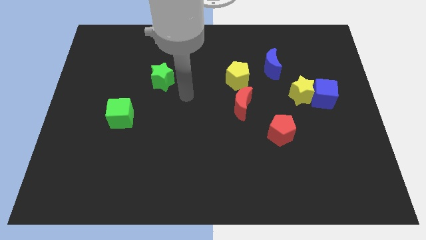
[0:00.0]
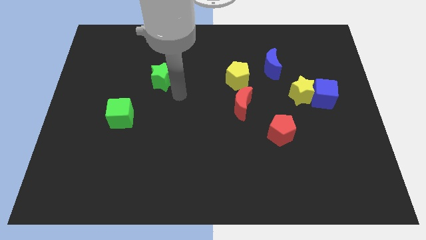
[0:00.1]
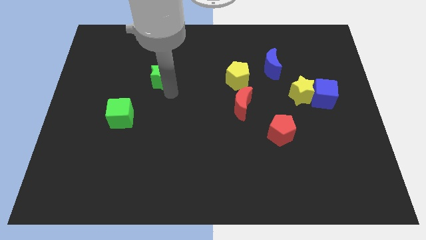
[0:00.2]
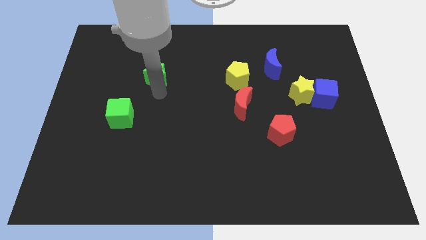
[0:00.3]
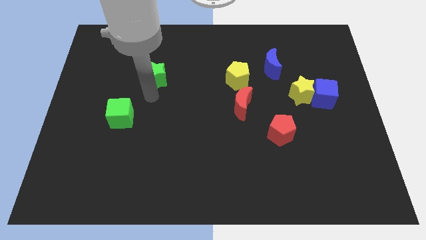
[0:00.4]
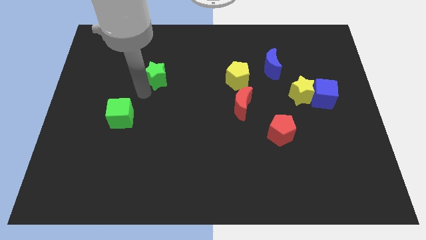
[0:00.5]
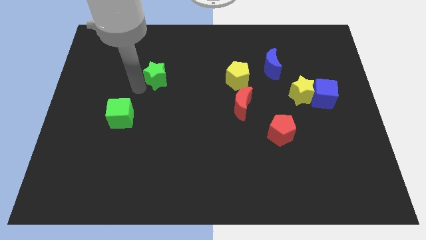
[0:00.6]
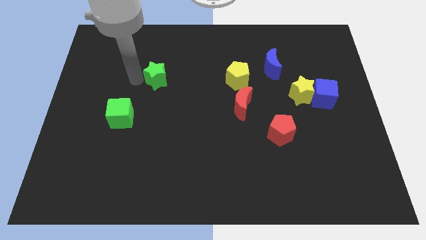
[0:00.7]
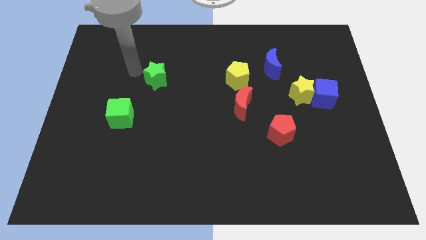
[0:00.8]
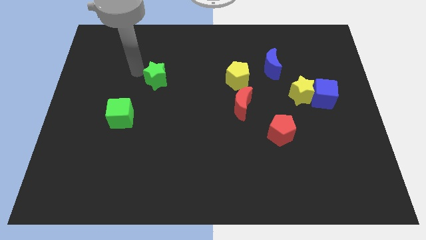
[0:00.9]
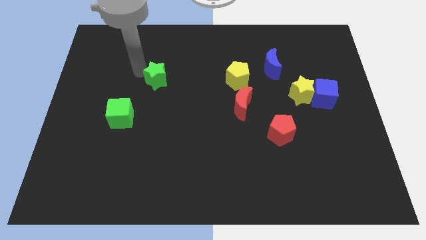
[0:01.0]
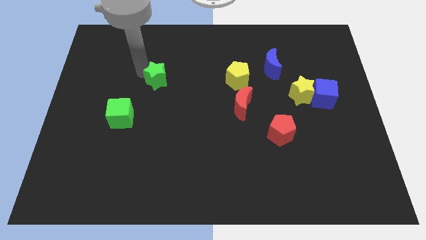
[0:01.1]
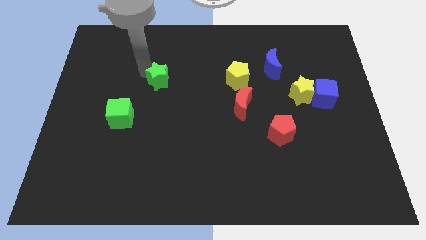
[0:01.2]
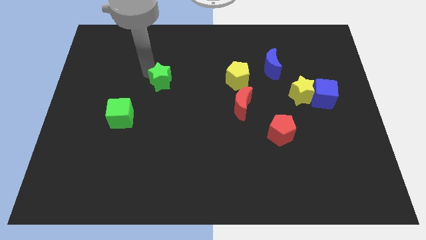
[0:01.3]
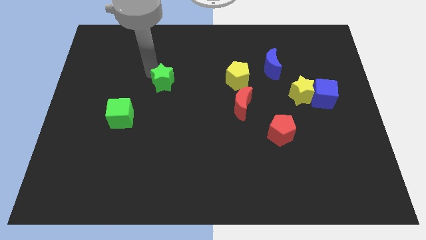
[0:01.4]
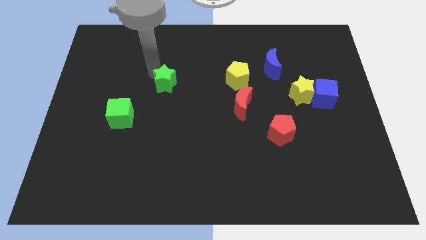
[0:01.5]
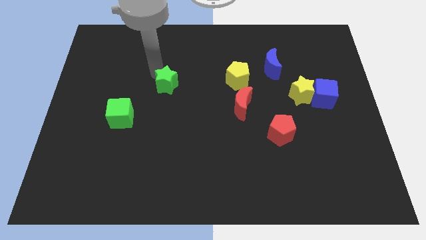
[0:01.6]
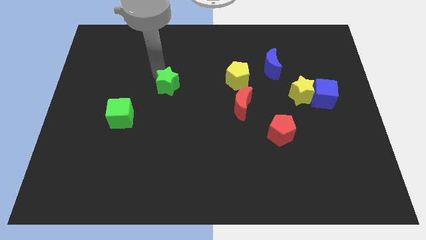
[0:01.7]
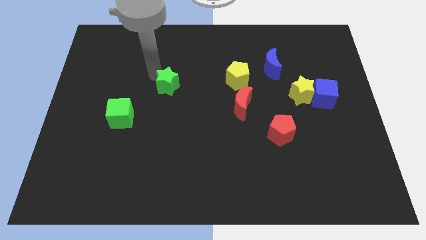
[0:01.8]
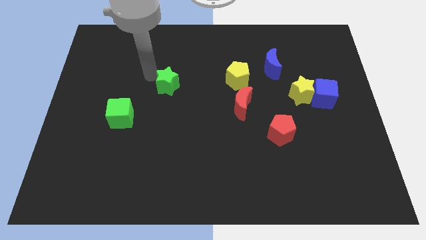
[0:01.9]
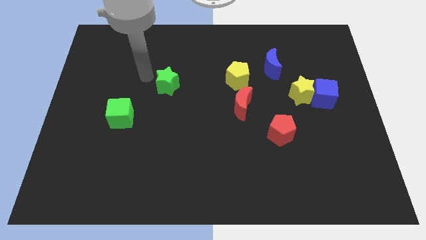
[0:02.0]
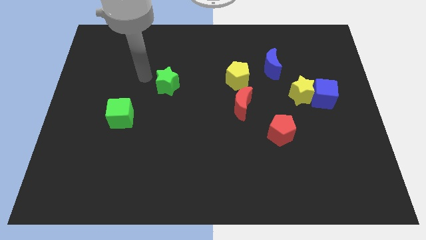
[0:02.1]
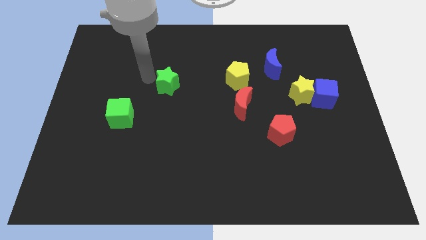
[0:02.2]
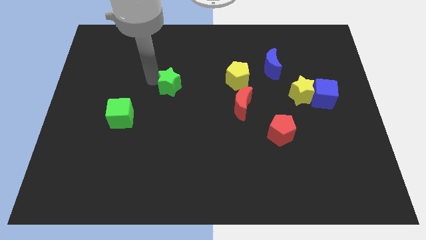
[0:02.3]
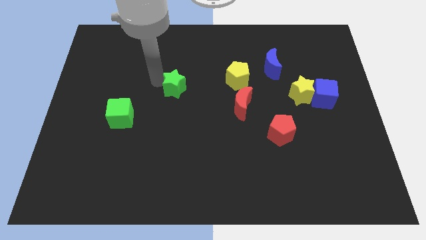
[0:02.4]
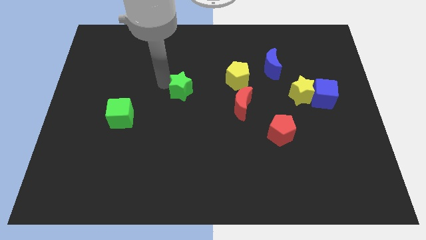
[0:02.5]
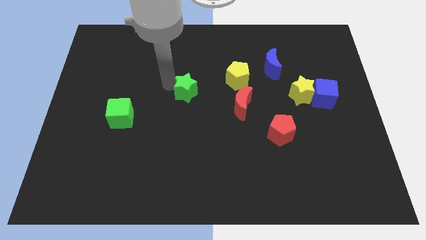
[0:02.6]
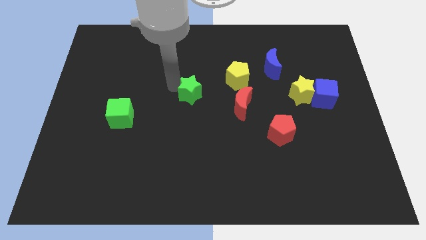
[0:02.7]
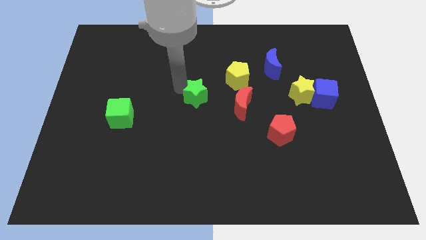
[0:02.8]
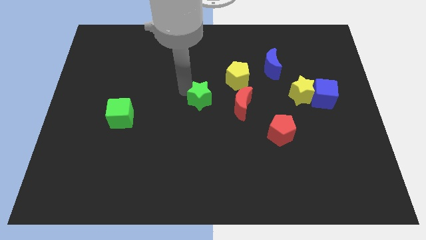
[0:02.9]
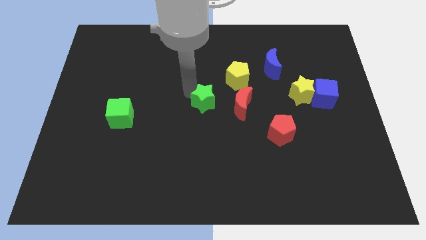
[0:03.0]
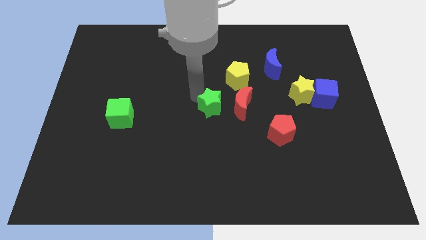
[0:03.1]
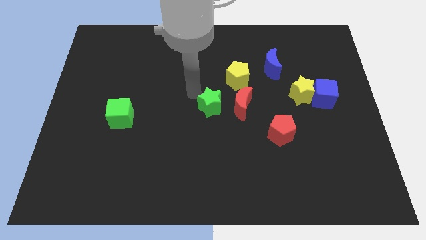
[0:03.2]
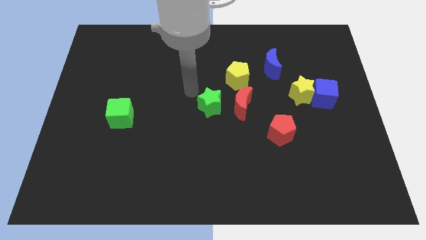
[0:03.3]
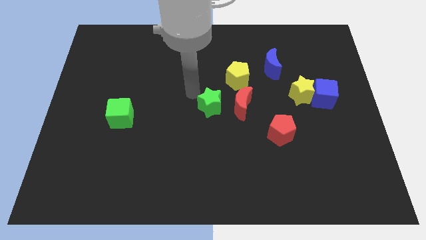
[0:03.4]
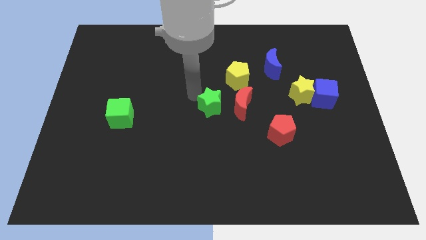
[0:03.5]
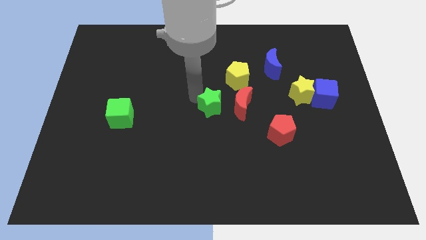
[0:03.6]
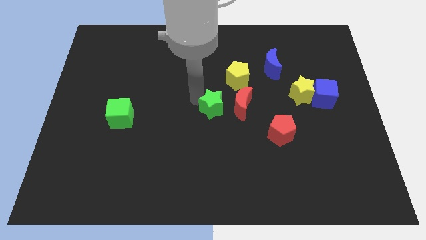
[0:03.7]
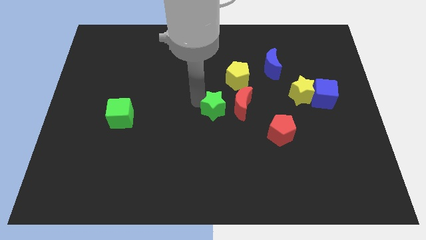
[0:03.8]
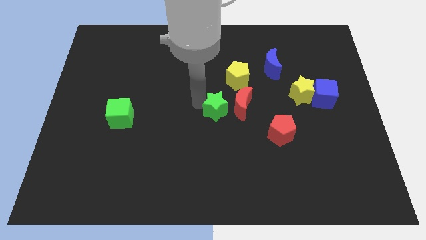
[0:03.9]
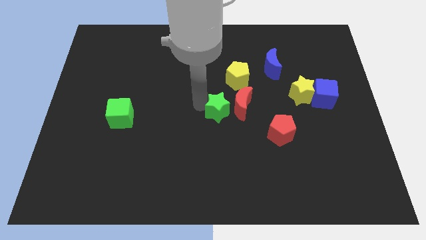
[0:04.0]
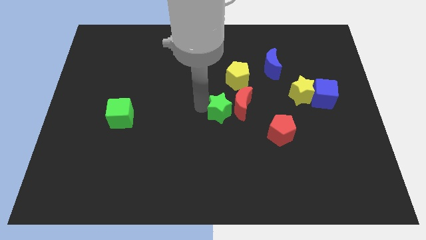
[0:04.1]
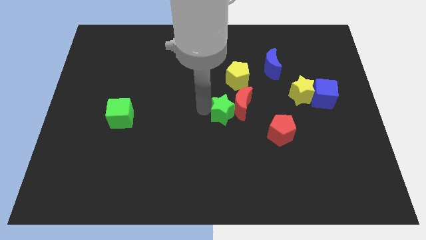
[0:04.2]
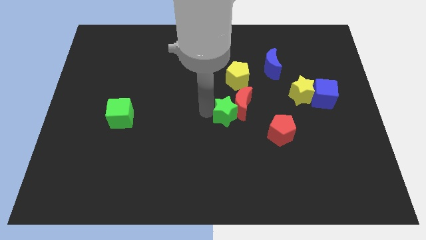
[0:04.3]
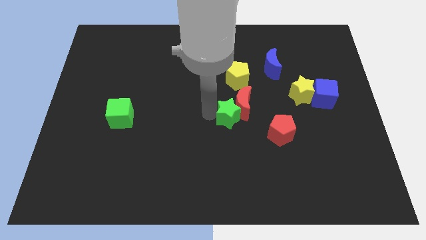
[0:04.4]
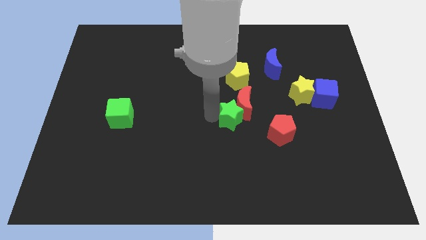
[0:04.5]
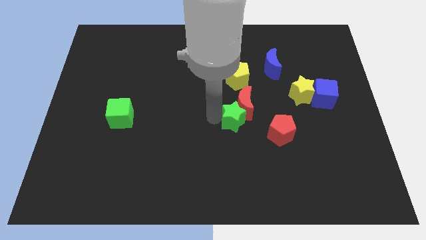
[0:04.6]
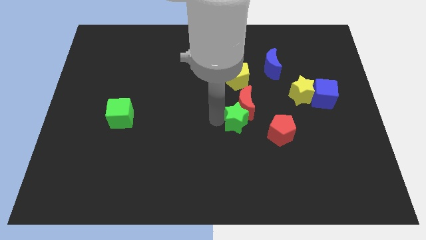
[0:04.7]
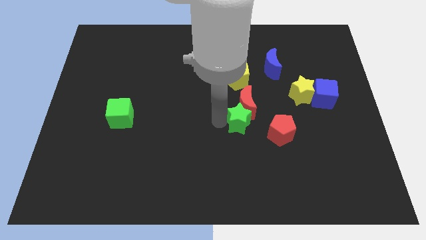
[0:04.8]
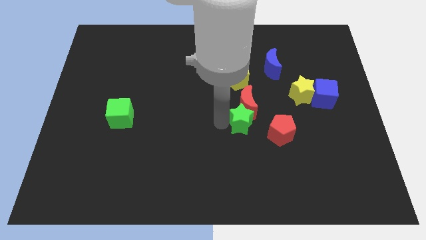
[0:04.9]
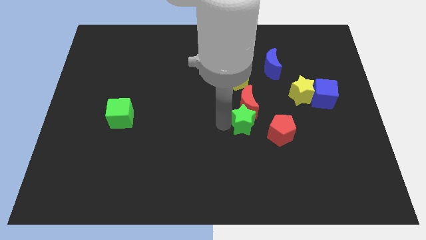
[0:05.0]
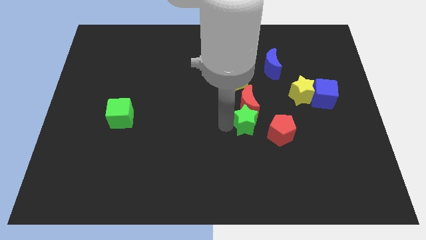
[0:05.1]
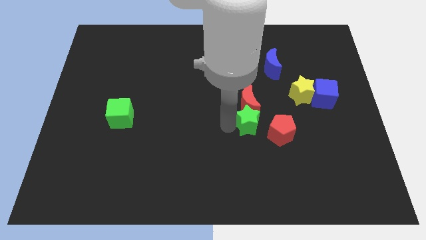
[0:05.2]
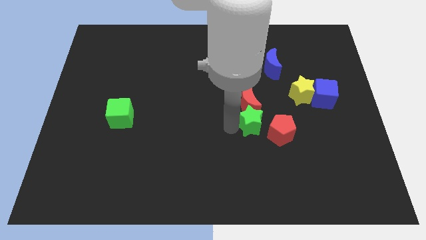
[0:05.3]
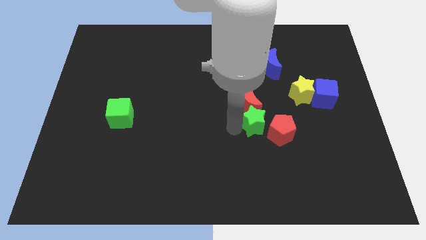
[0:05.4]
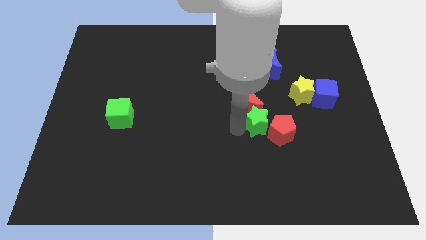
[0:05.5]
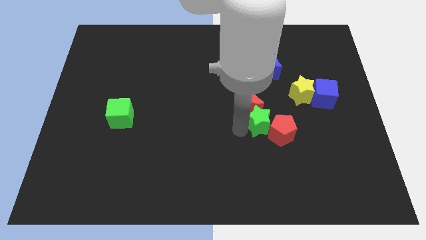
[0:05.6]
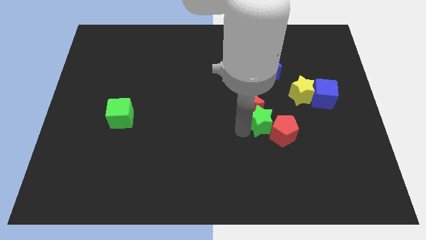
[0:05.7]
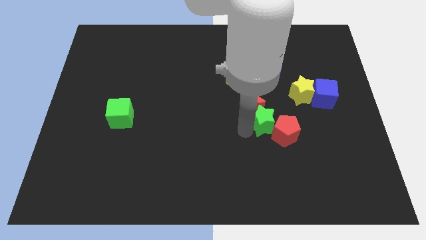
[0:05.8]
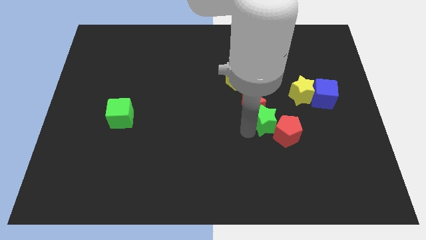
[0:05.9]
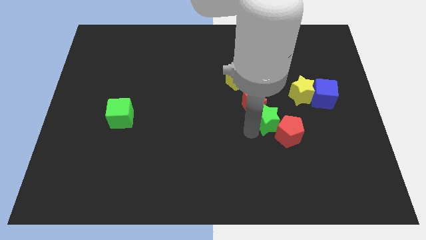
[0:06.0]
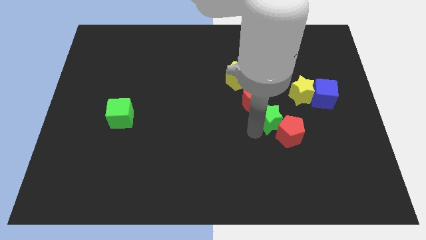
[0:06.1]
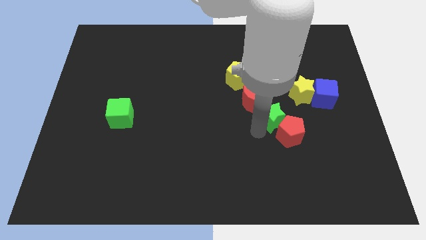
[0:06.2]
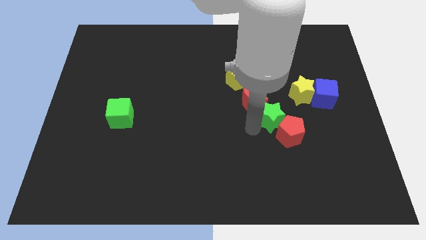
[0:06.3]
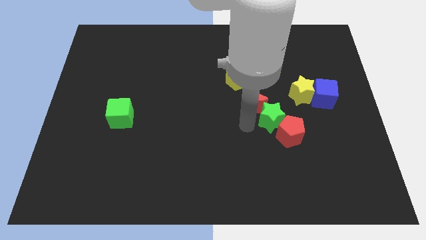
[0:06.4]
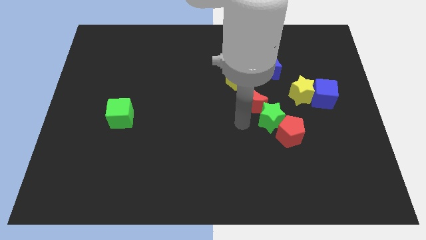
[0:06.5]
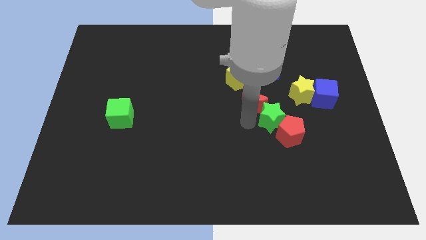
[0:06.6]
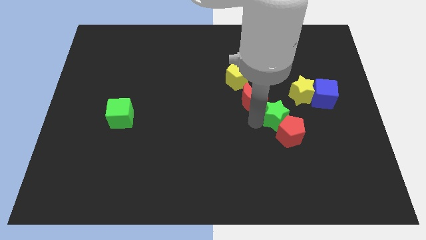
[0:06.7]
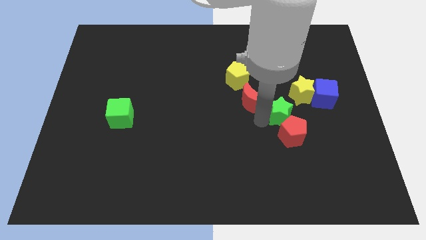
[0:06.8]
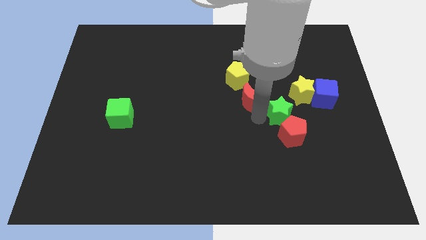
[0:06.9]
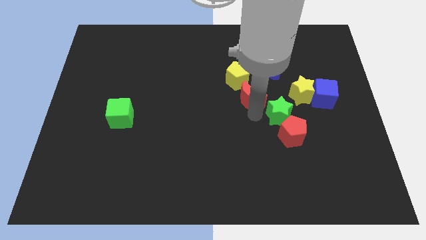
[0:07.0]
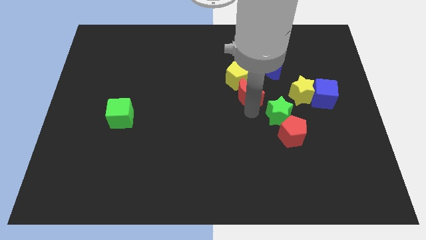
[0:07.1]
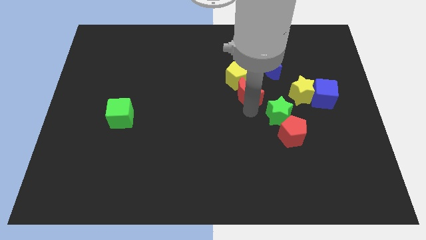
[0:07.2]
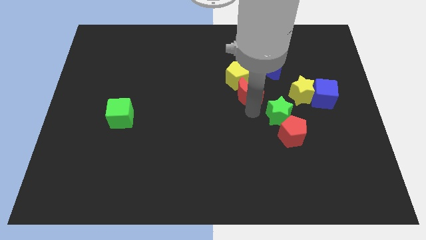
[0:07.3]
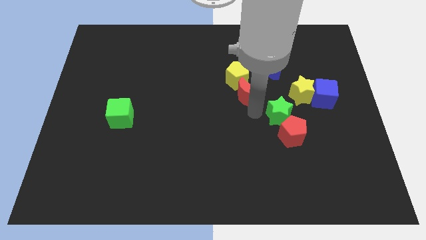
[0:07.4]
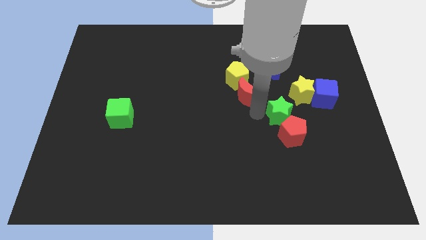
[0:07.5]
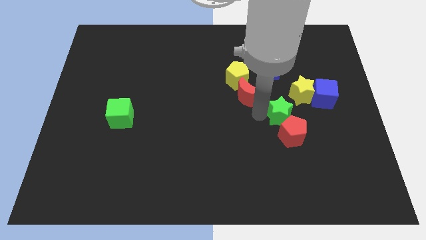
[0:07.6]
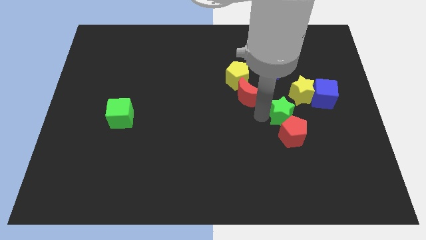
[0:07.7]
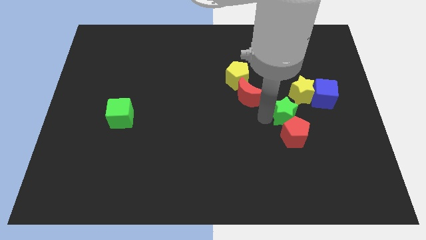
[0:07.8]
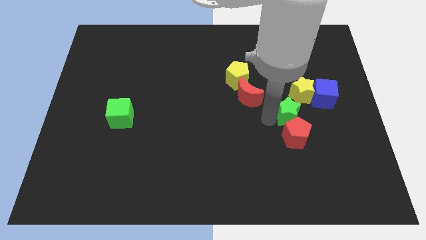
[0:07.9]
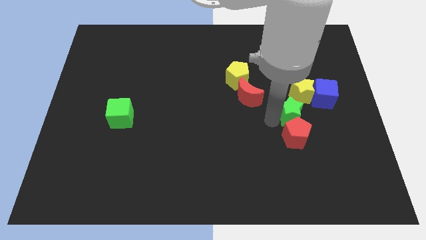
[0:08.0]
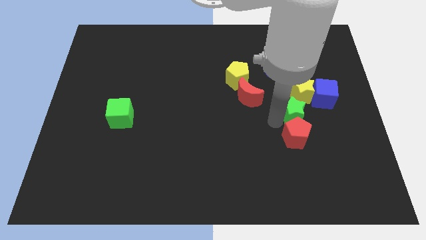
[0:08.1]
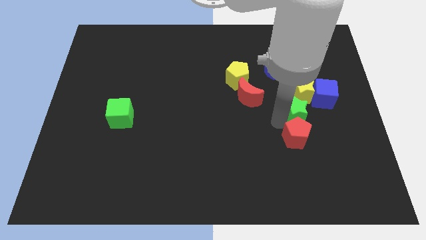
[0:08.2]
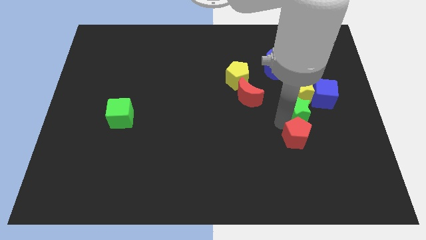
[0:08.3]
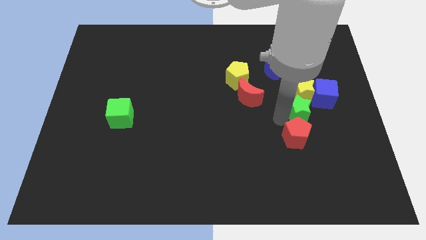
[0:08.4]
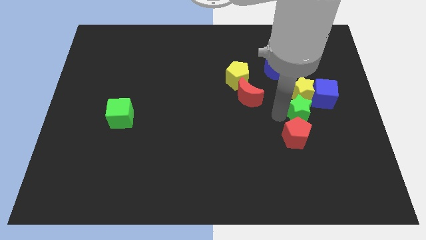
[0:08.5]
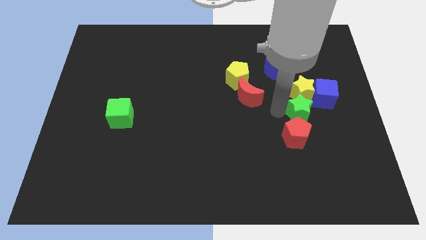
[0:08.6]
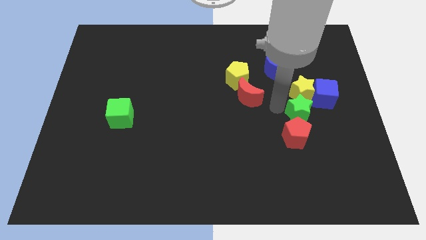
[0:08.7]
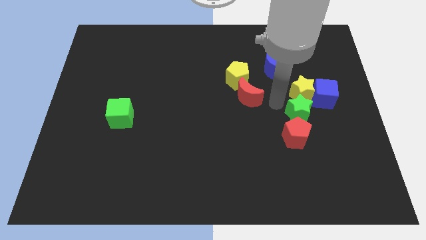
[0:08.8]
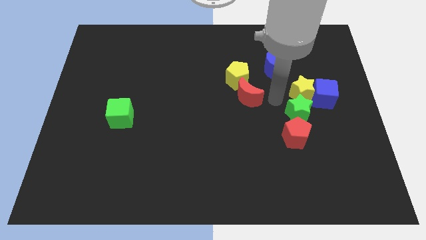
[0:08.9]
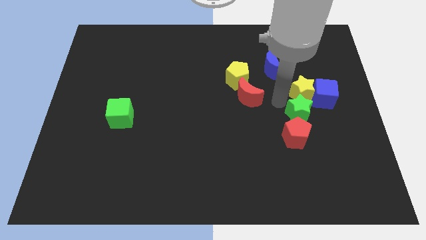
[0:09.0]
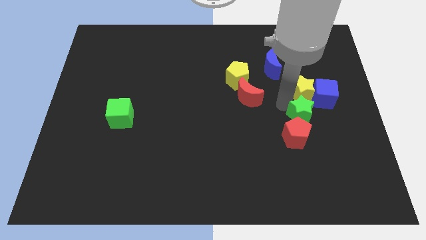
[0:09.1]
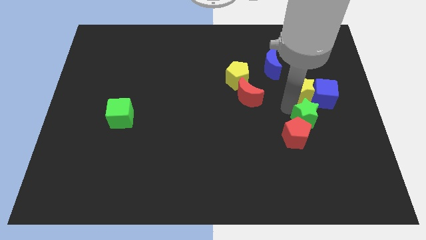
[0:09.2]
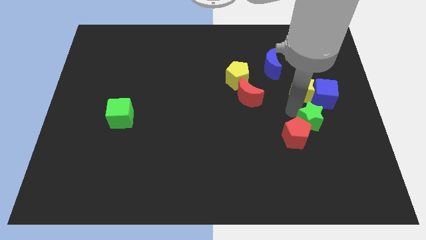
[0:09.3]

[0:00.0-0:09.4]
put the green star to the bottom side of the blue cube
